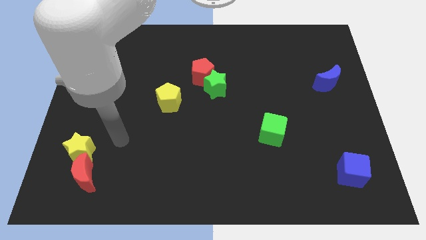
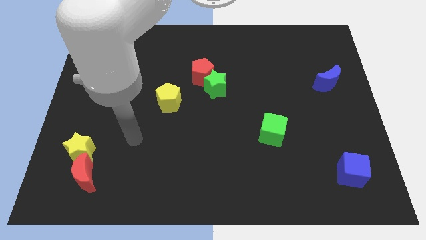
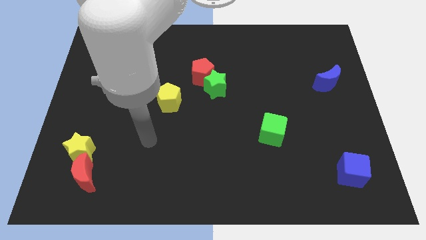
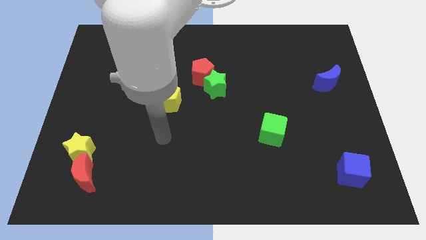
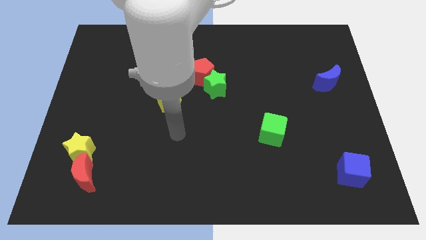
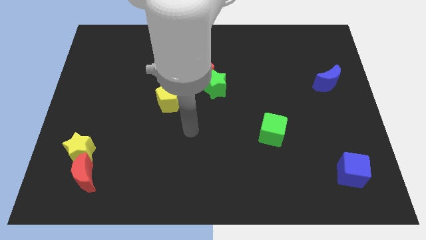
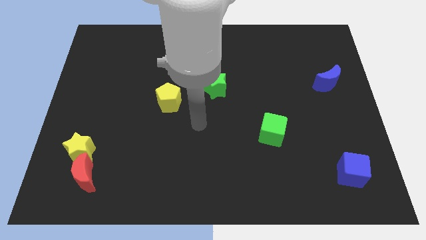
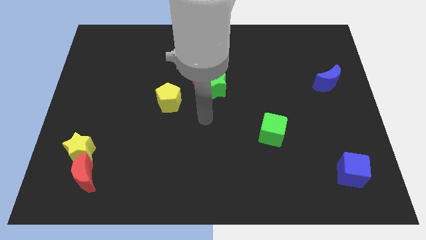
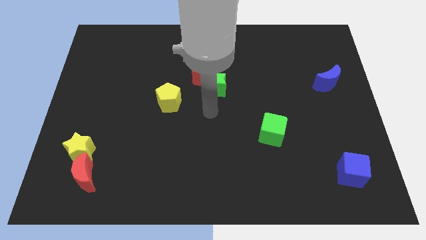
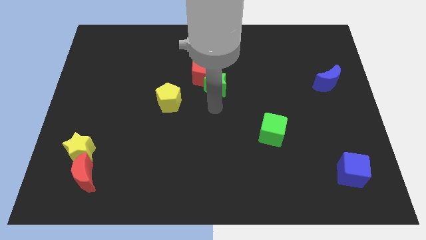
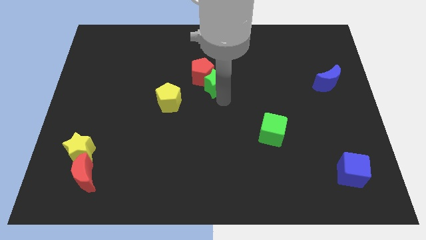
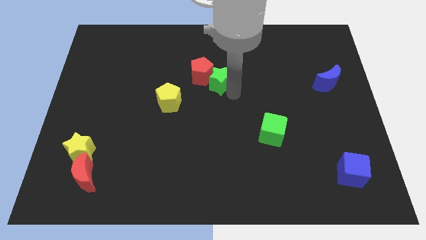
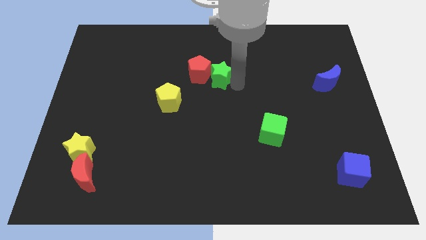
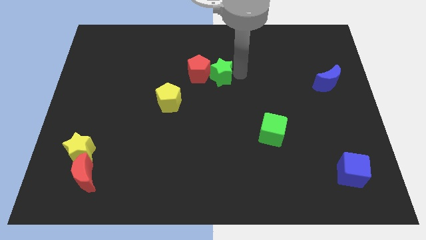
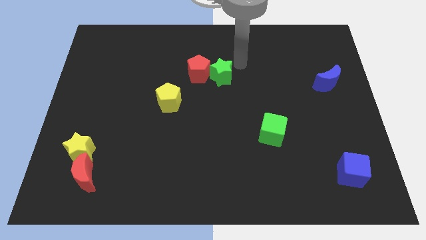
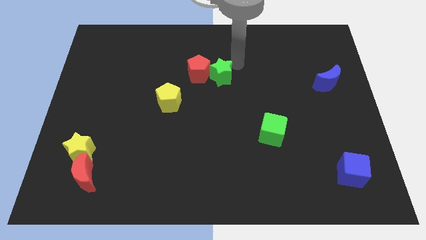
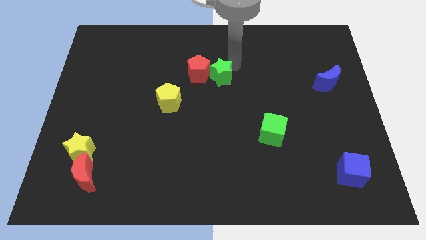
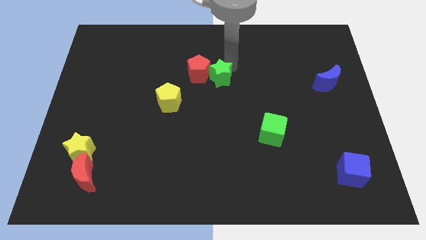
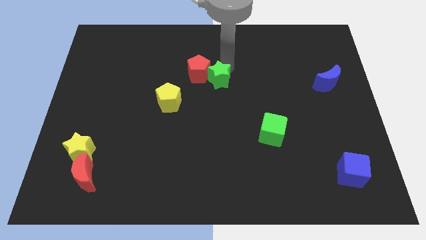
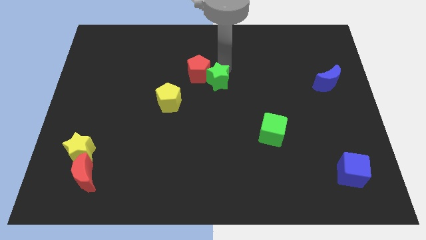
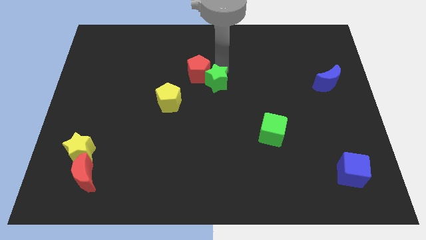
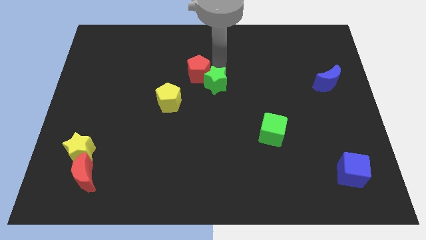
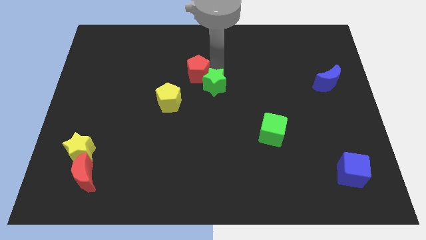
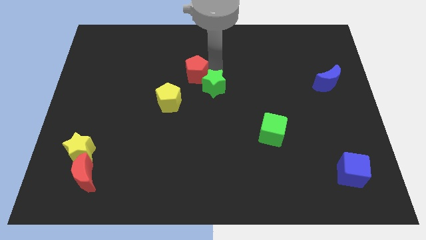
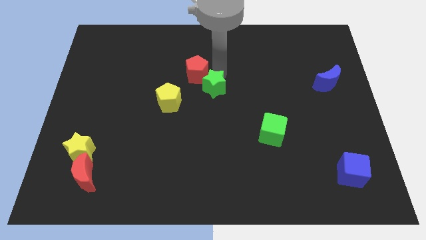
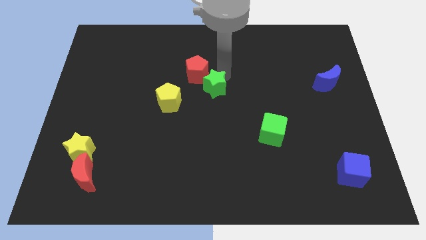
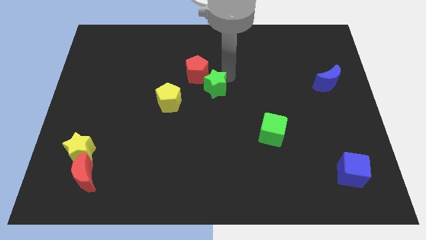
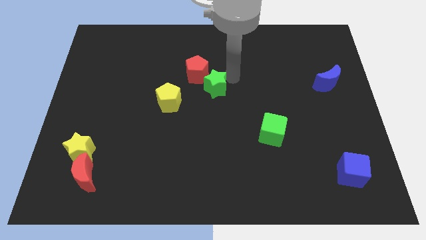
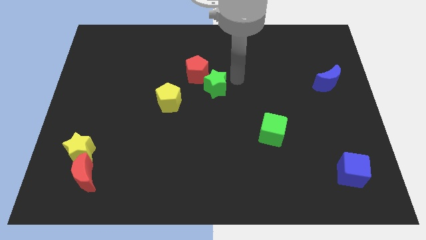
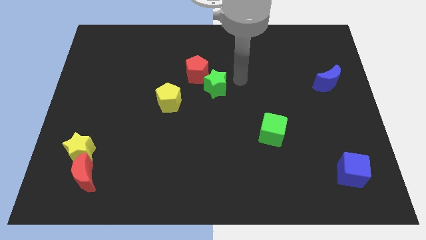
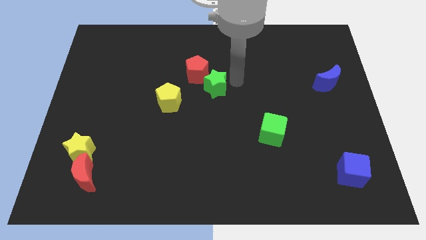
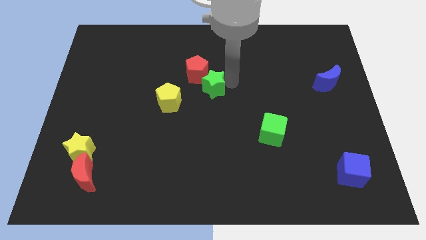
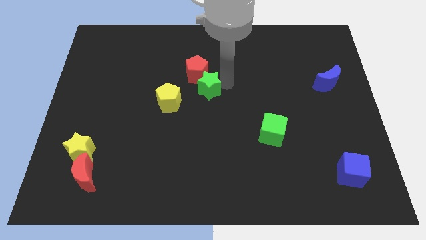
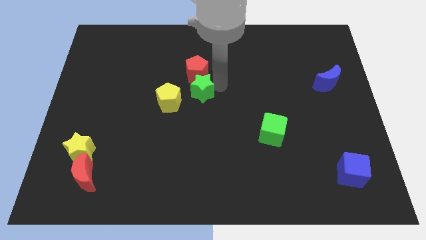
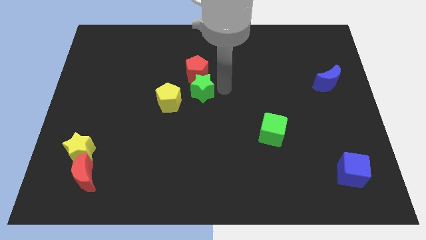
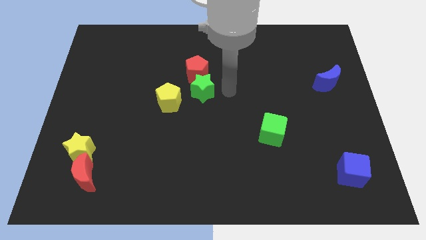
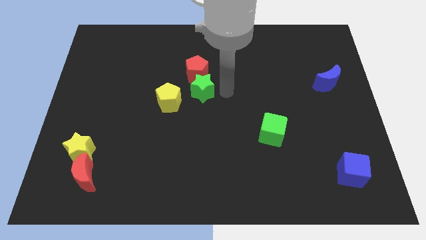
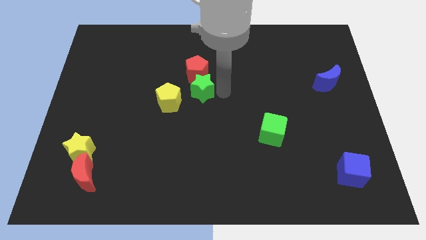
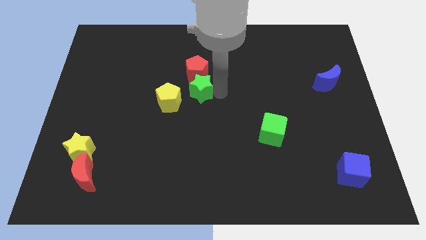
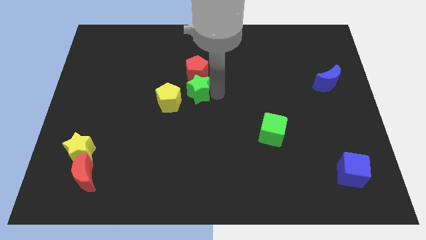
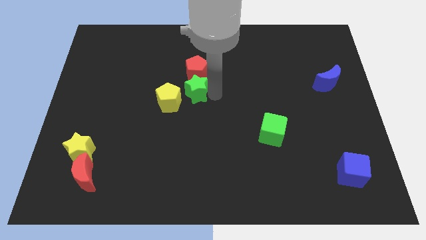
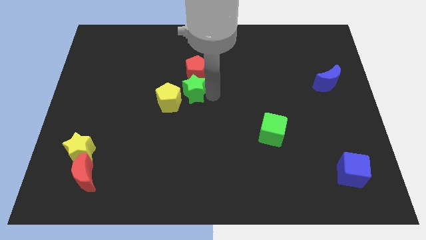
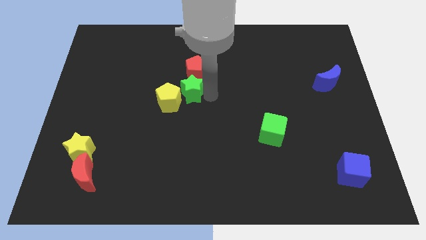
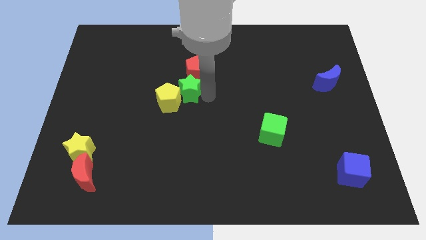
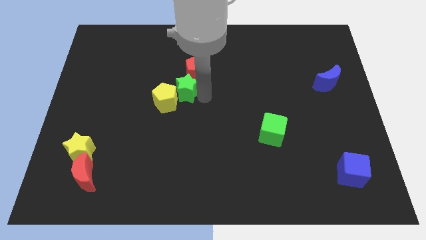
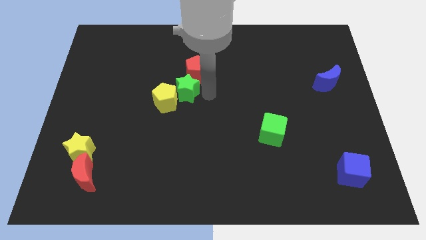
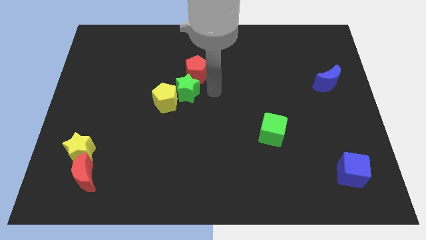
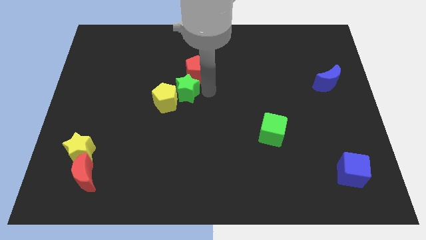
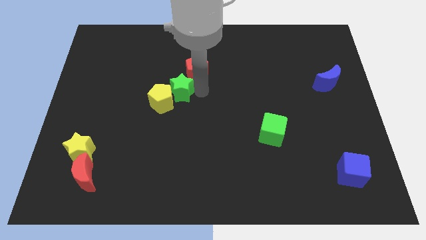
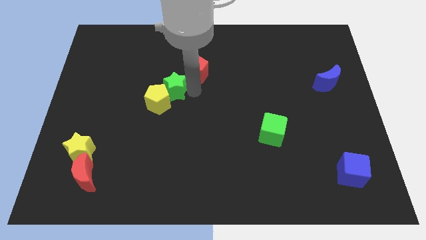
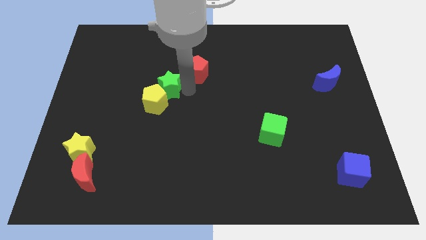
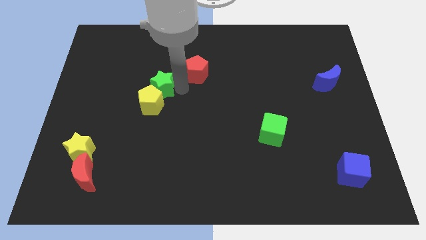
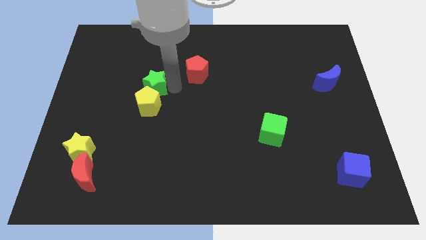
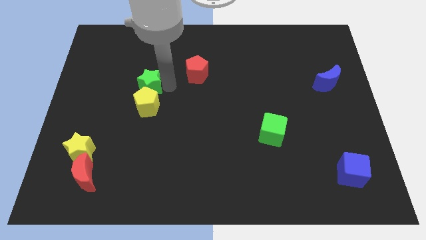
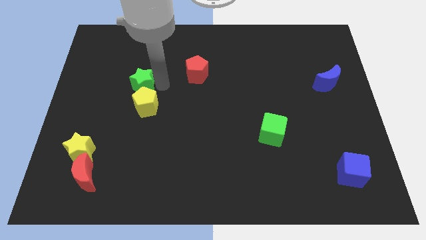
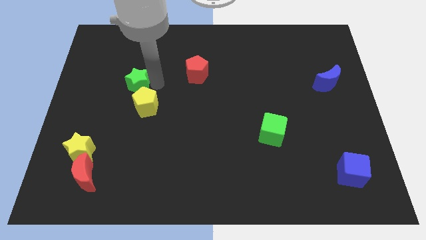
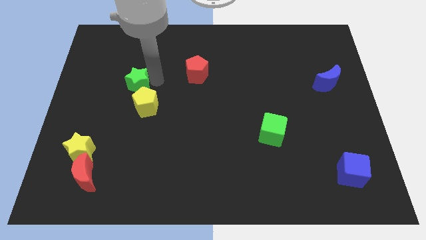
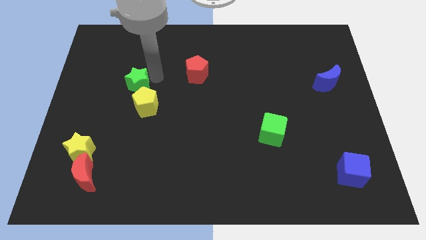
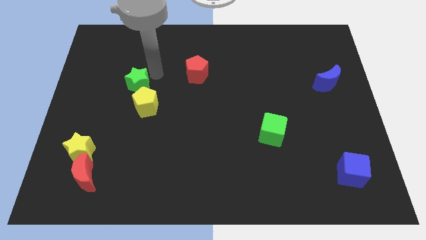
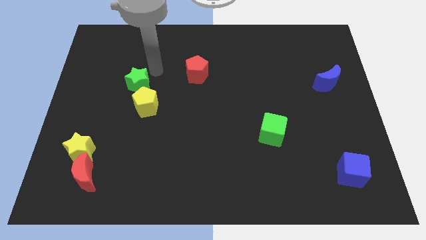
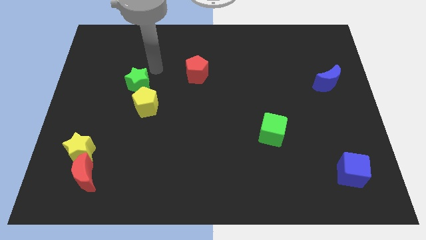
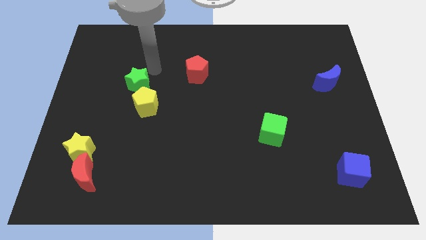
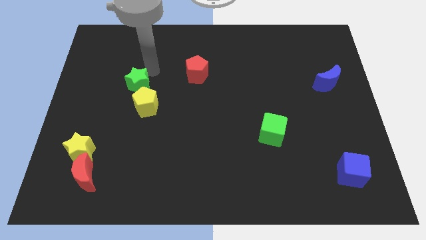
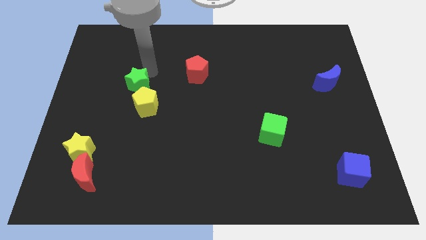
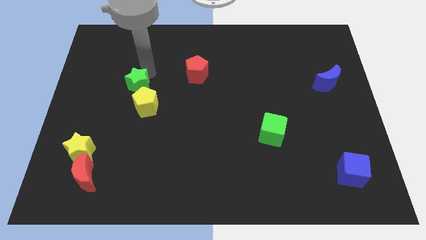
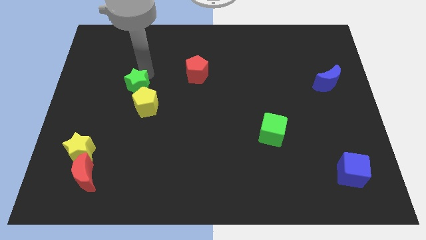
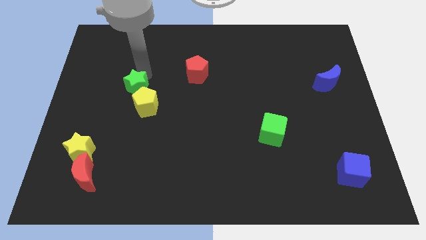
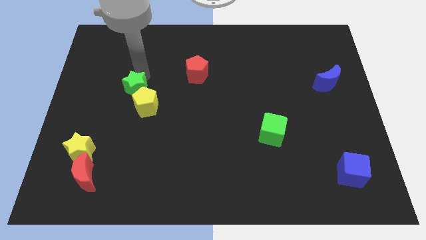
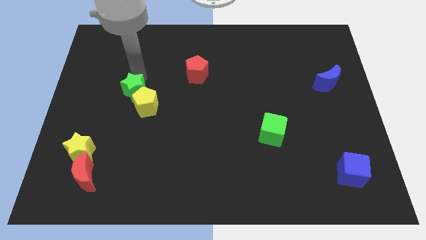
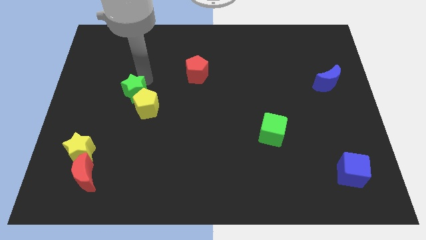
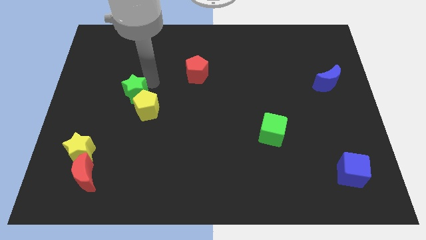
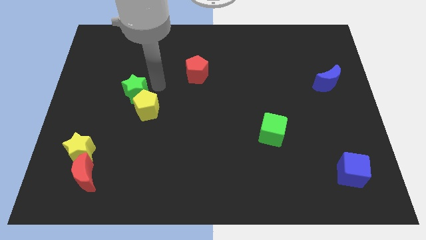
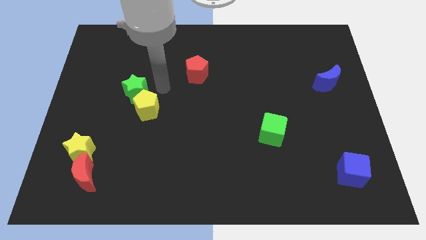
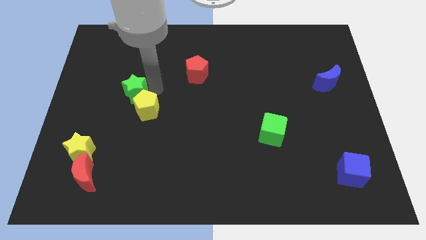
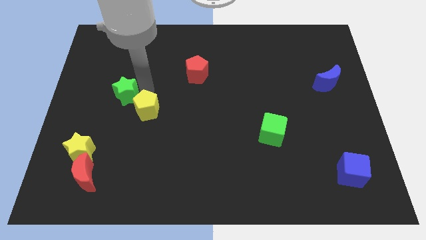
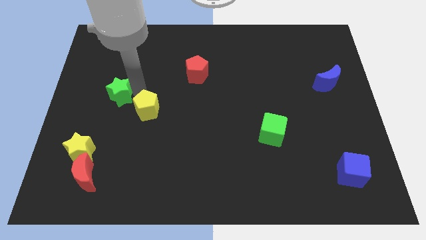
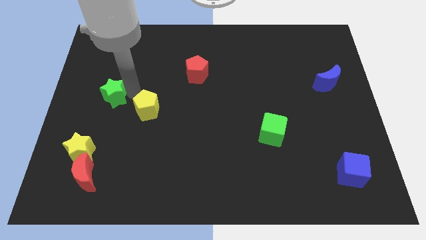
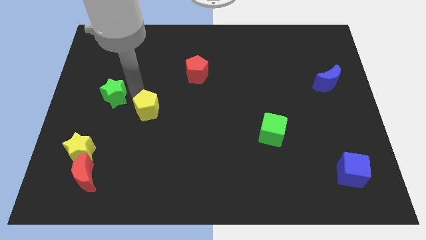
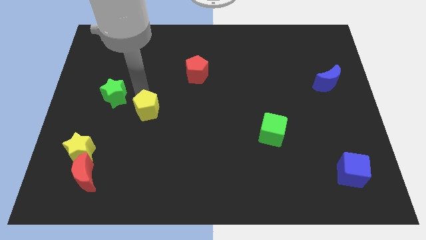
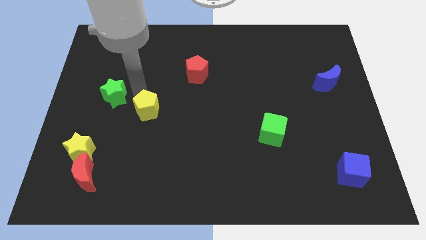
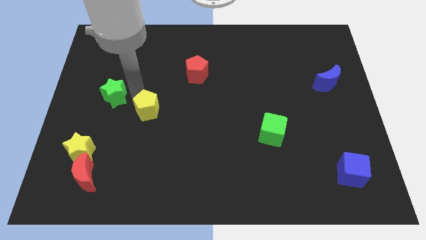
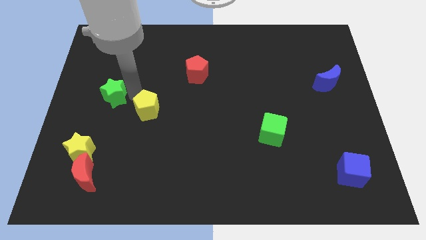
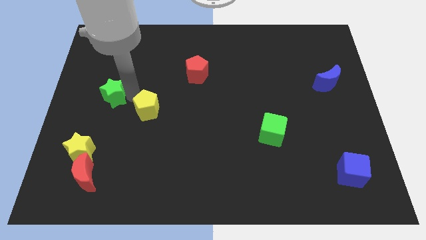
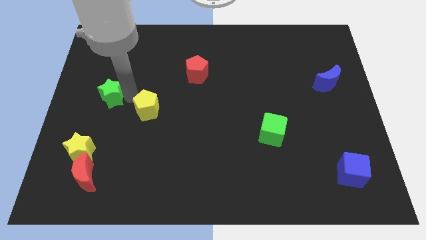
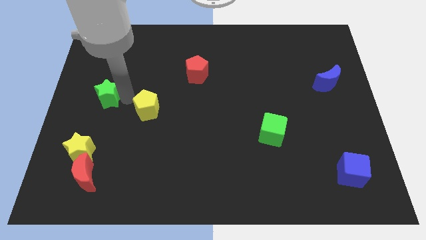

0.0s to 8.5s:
push the green star to the left side
